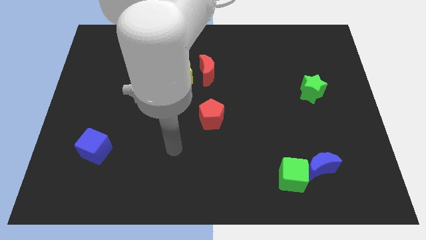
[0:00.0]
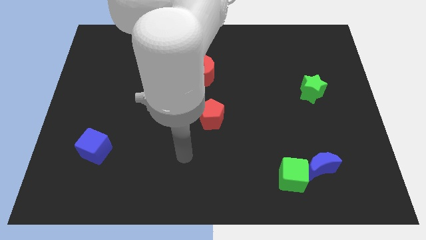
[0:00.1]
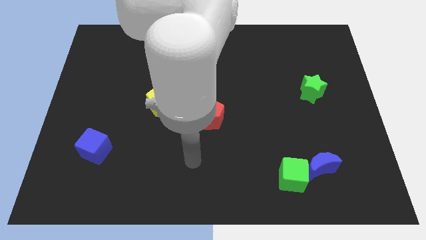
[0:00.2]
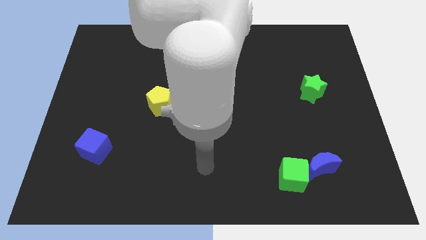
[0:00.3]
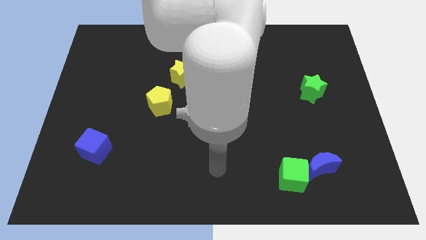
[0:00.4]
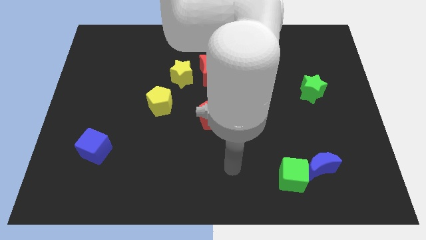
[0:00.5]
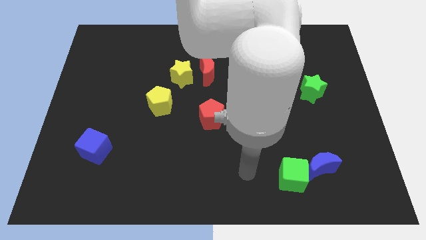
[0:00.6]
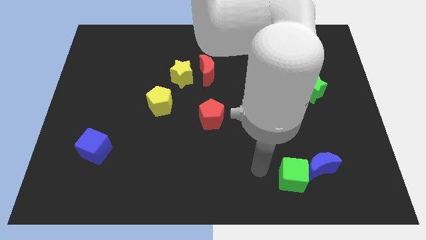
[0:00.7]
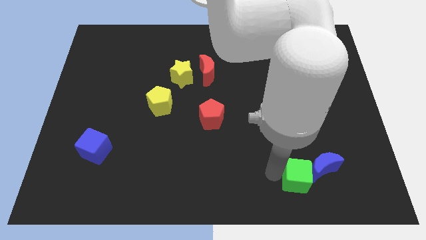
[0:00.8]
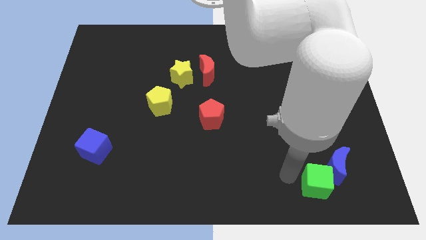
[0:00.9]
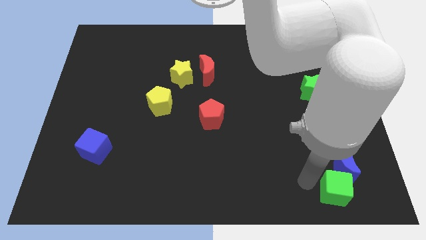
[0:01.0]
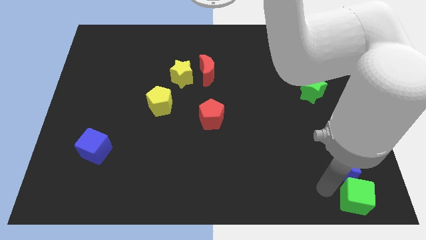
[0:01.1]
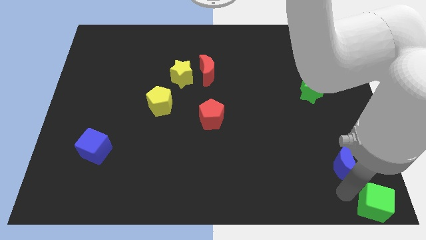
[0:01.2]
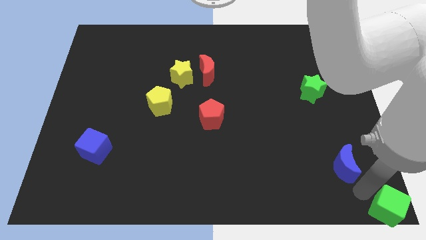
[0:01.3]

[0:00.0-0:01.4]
separate the blue moon from the green cube

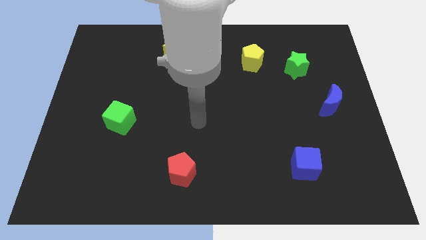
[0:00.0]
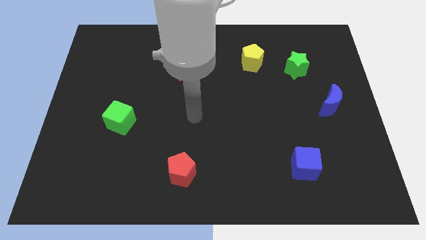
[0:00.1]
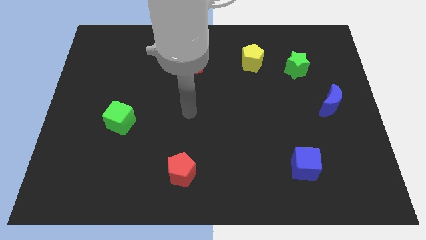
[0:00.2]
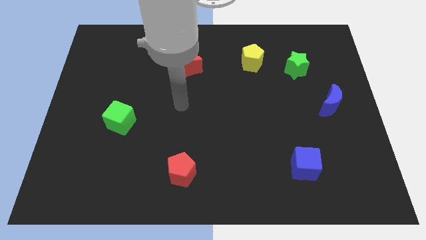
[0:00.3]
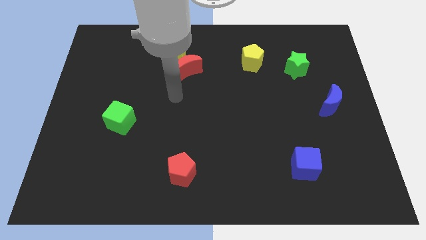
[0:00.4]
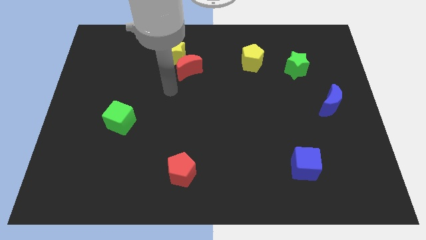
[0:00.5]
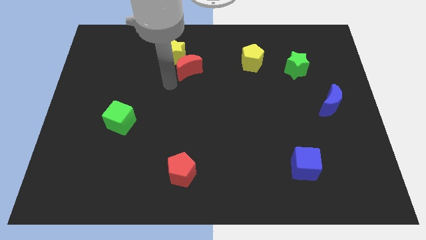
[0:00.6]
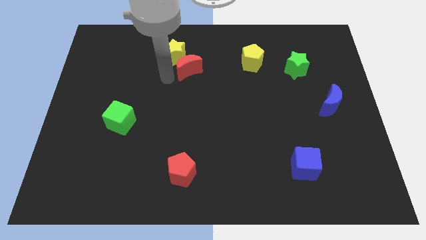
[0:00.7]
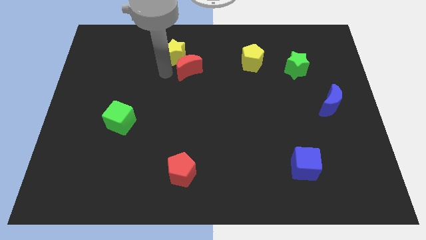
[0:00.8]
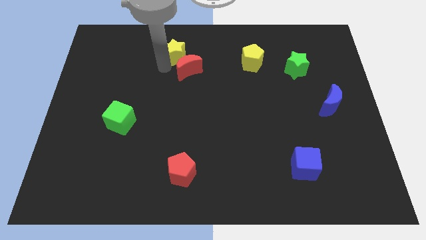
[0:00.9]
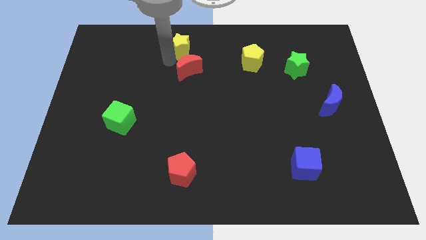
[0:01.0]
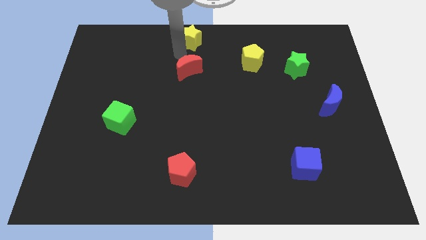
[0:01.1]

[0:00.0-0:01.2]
separate the red moon from the yellow star

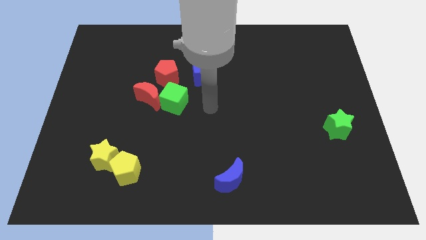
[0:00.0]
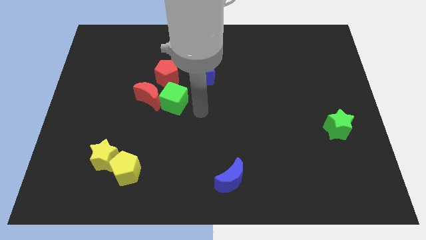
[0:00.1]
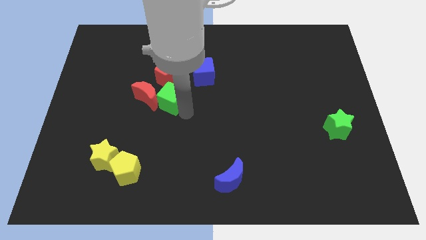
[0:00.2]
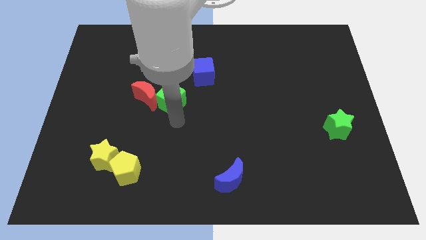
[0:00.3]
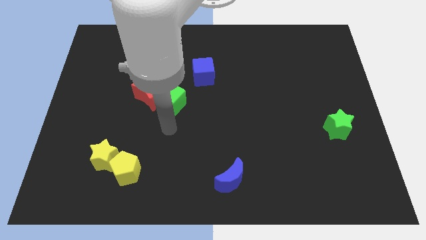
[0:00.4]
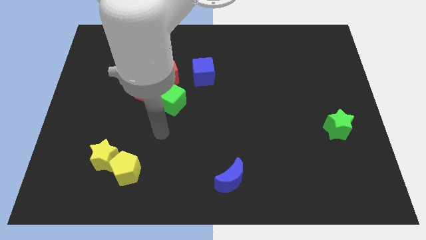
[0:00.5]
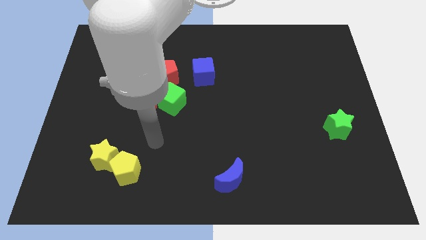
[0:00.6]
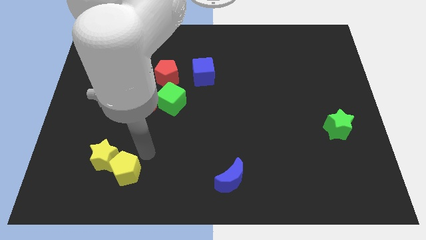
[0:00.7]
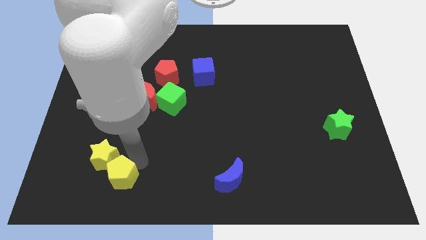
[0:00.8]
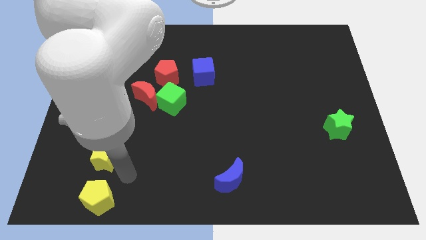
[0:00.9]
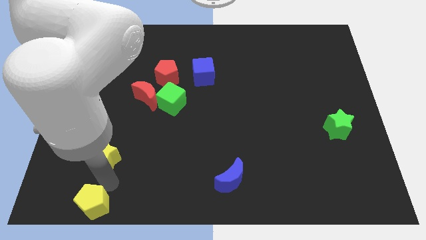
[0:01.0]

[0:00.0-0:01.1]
separate the yellow star from the yellow pentagon

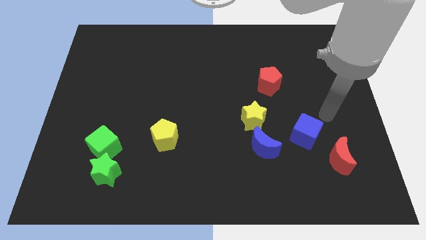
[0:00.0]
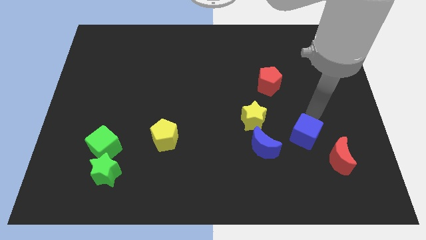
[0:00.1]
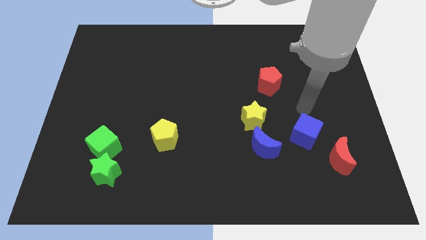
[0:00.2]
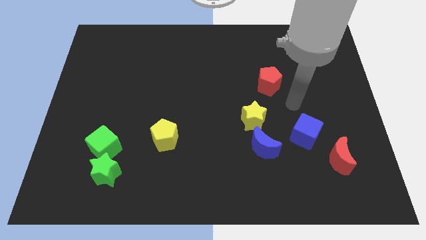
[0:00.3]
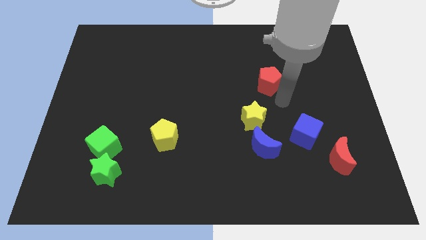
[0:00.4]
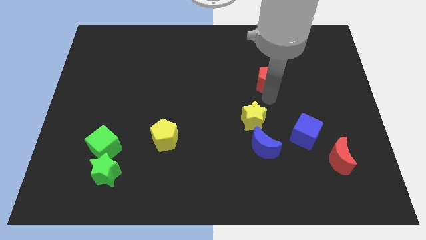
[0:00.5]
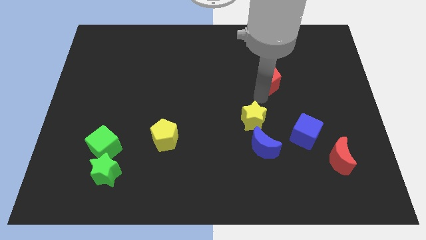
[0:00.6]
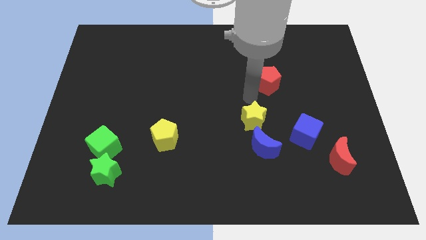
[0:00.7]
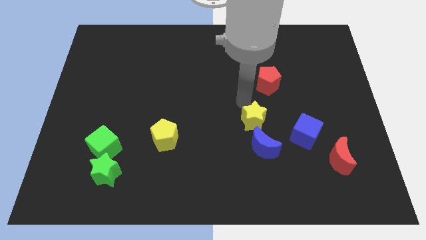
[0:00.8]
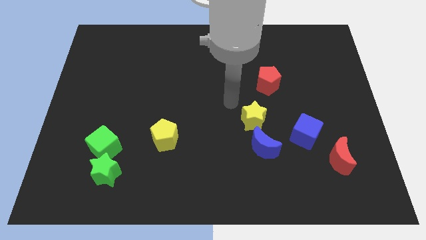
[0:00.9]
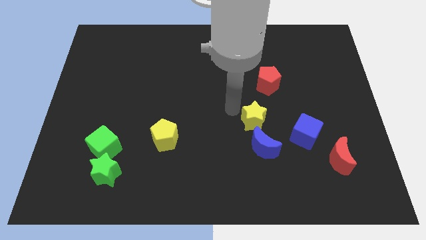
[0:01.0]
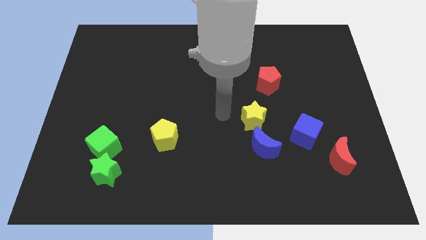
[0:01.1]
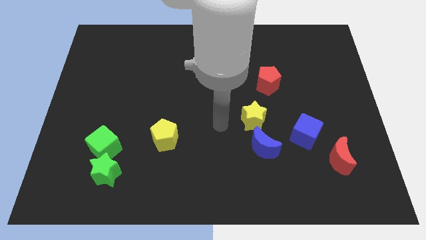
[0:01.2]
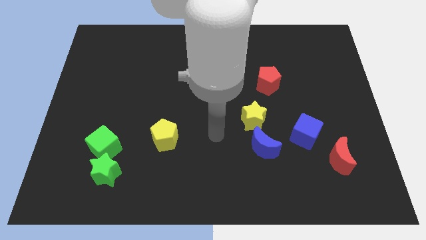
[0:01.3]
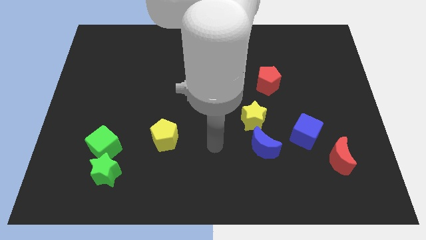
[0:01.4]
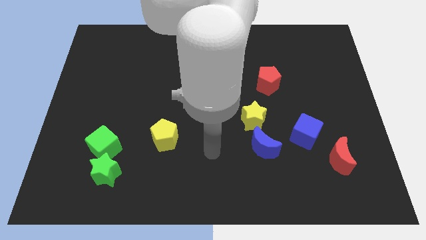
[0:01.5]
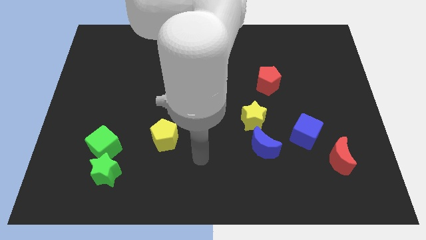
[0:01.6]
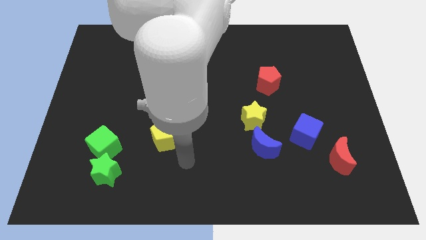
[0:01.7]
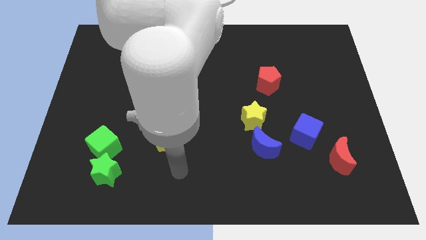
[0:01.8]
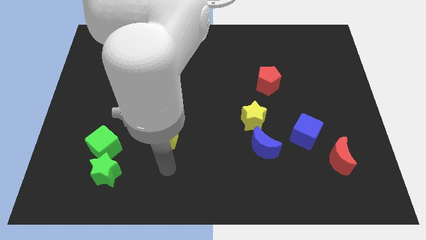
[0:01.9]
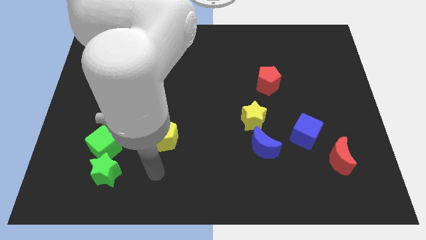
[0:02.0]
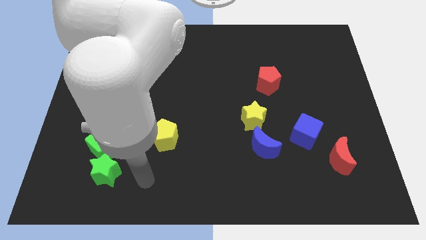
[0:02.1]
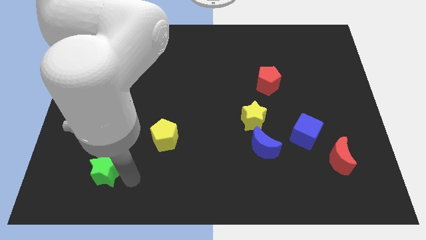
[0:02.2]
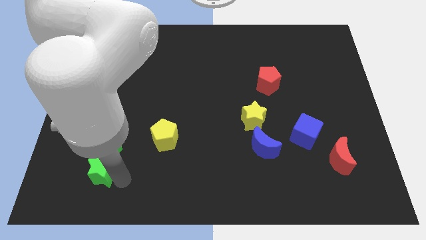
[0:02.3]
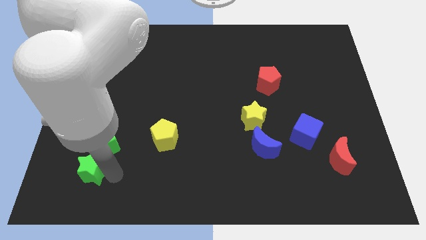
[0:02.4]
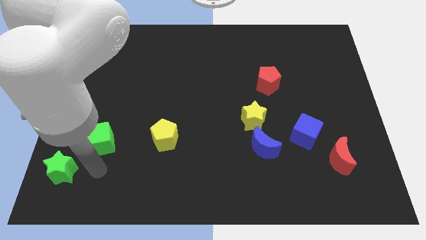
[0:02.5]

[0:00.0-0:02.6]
separate the green cube from the green star

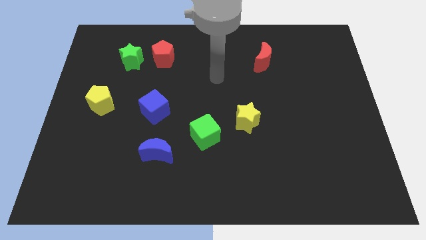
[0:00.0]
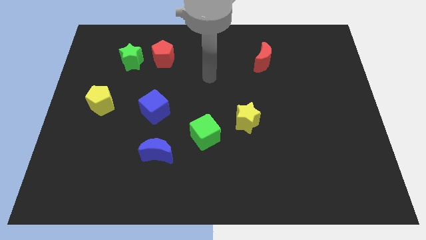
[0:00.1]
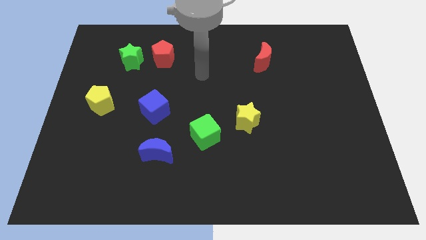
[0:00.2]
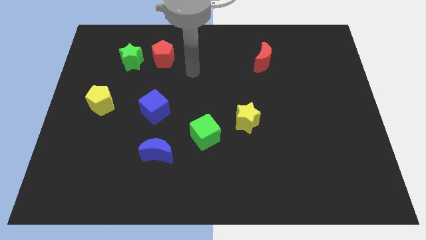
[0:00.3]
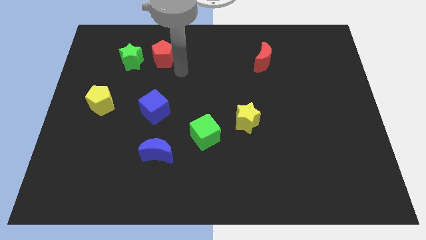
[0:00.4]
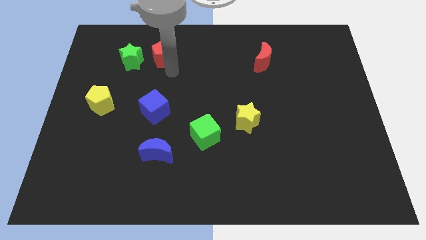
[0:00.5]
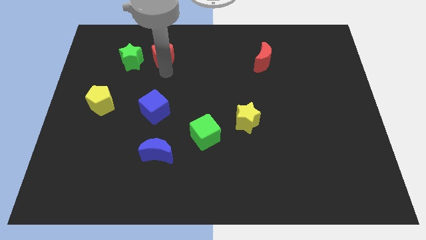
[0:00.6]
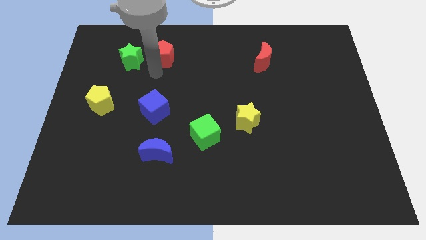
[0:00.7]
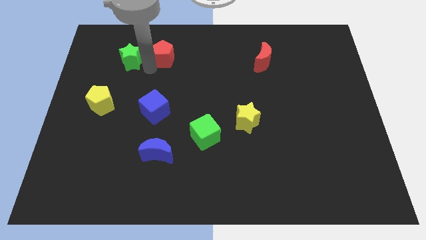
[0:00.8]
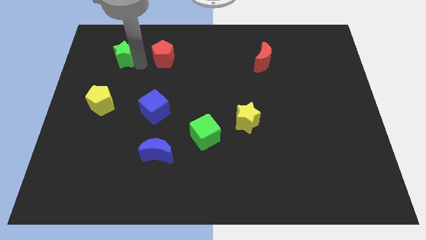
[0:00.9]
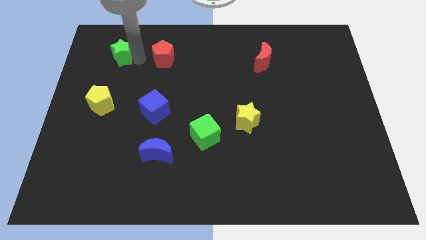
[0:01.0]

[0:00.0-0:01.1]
move the red pentagon away from the green star

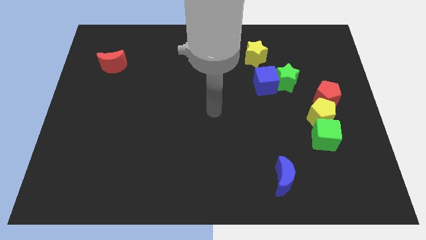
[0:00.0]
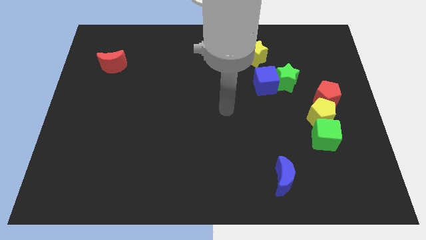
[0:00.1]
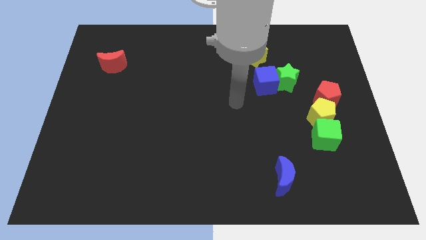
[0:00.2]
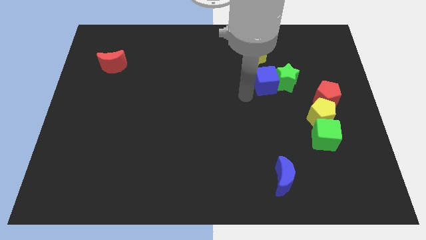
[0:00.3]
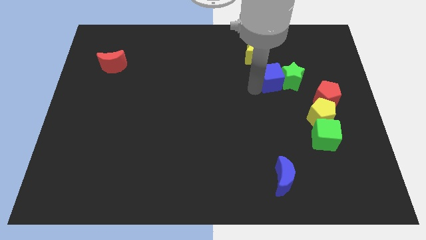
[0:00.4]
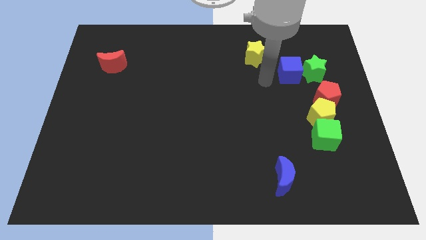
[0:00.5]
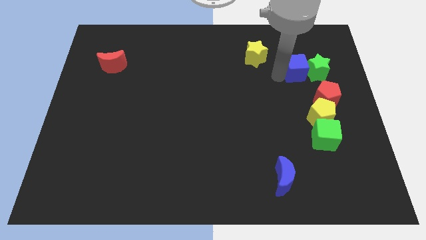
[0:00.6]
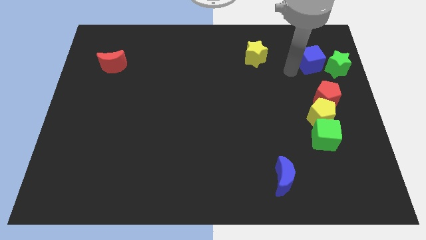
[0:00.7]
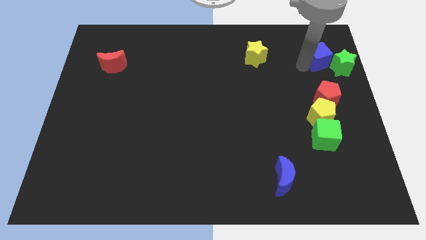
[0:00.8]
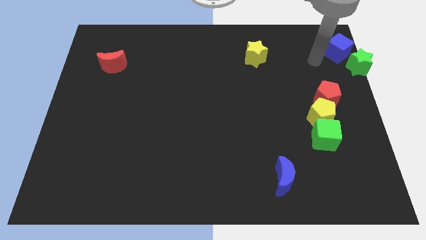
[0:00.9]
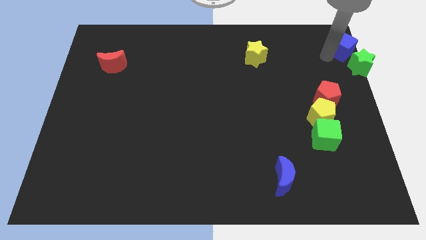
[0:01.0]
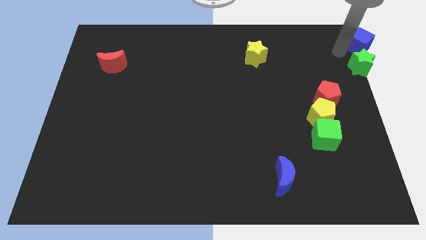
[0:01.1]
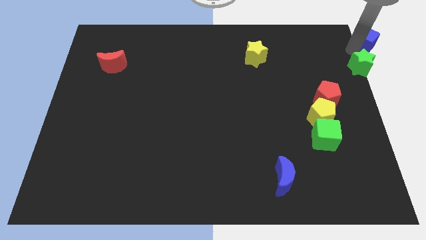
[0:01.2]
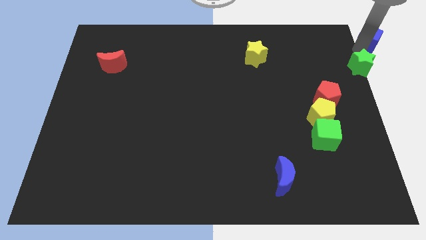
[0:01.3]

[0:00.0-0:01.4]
separate the green star from the blue cube

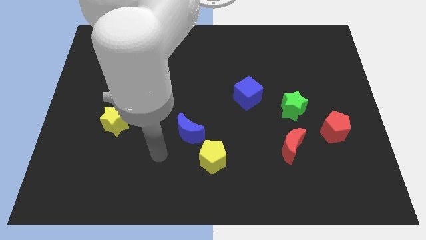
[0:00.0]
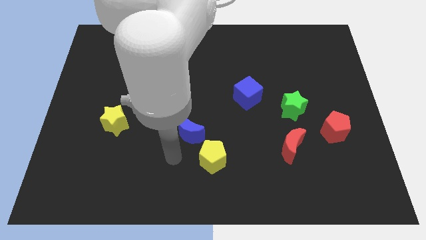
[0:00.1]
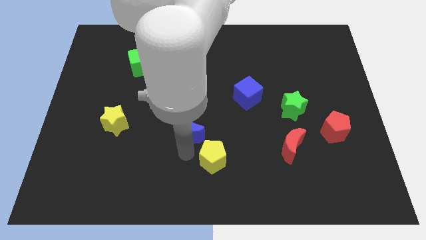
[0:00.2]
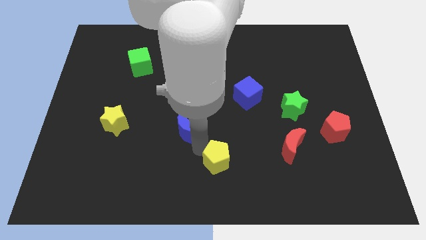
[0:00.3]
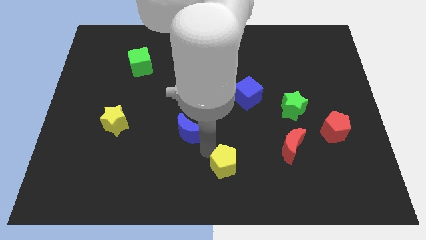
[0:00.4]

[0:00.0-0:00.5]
separate the blue moon from the yellow pentagon
